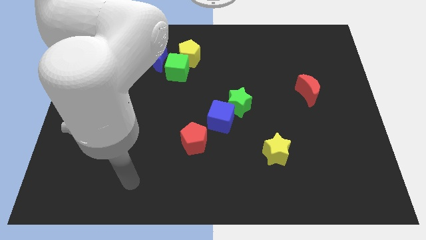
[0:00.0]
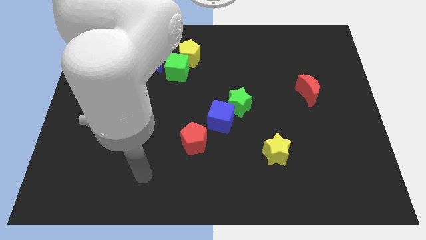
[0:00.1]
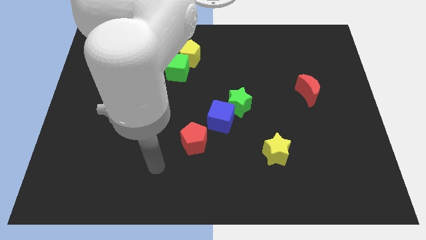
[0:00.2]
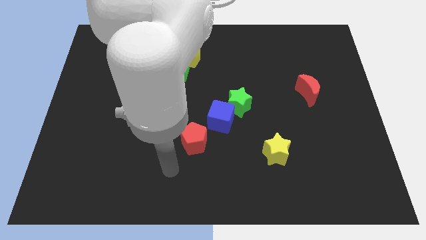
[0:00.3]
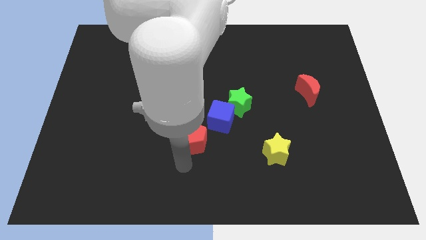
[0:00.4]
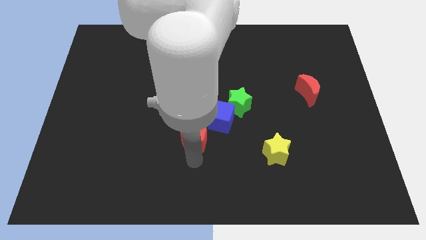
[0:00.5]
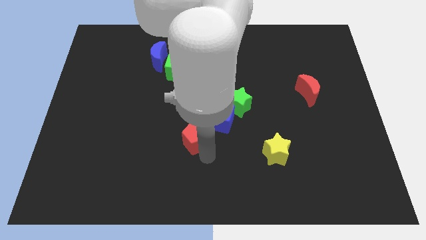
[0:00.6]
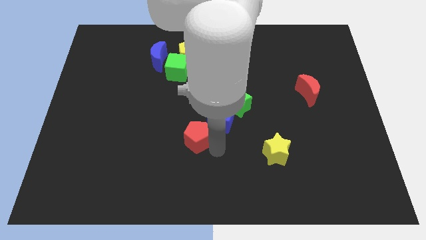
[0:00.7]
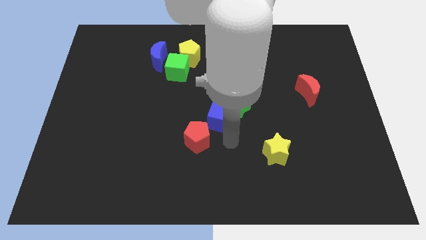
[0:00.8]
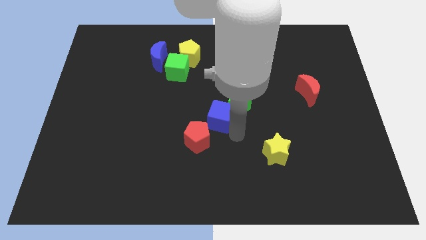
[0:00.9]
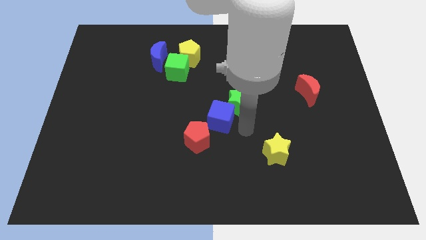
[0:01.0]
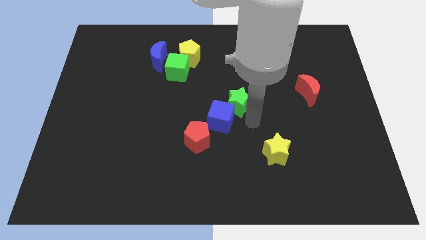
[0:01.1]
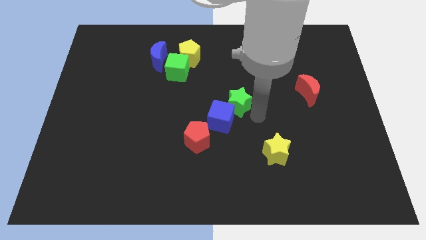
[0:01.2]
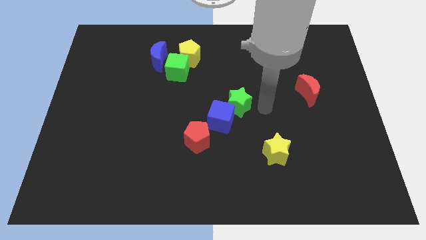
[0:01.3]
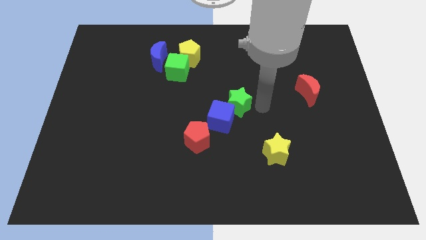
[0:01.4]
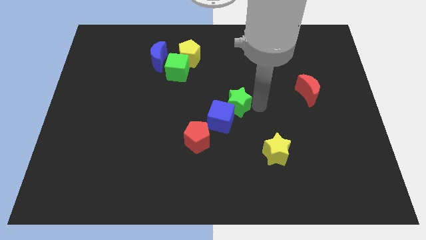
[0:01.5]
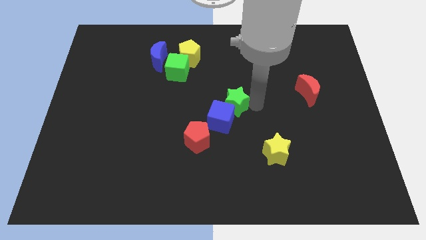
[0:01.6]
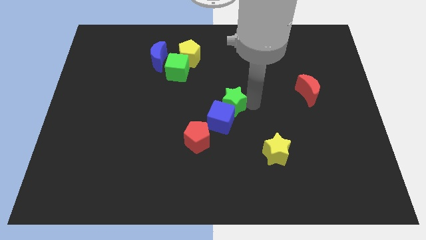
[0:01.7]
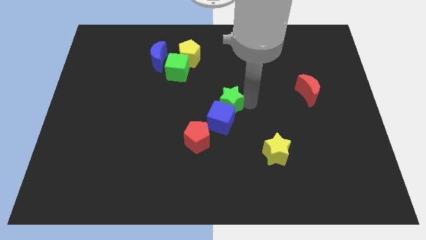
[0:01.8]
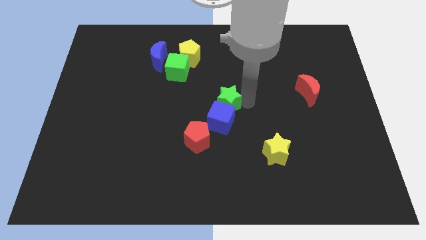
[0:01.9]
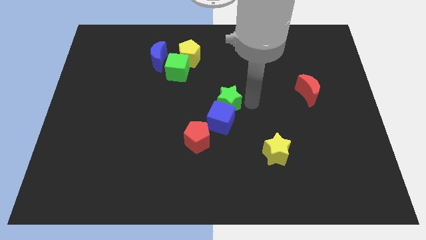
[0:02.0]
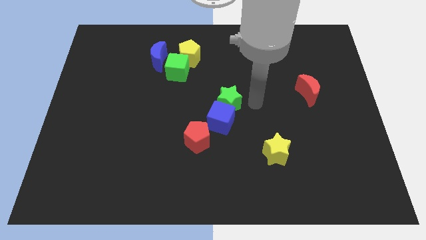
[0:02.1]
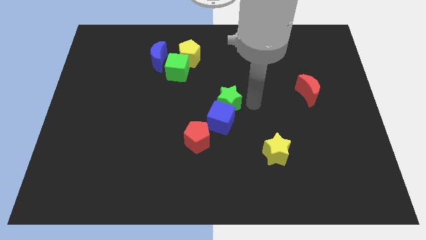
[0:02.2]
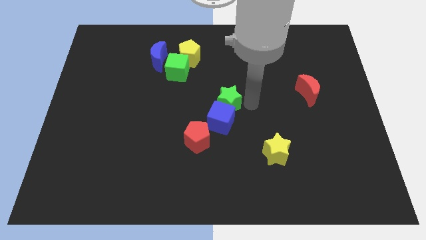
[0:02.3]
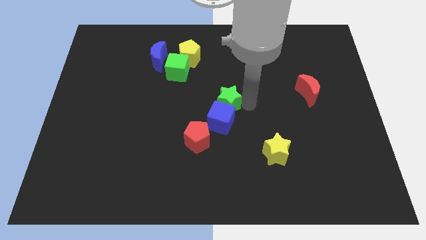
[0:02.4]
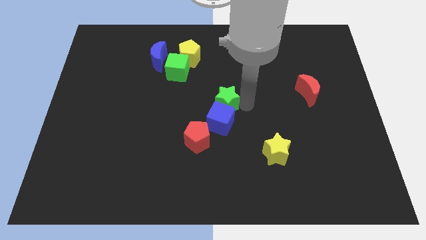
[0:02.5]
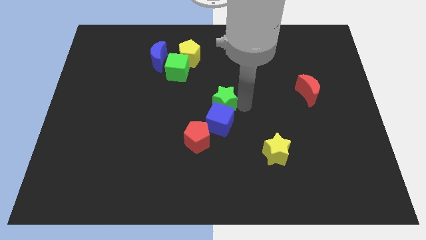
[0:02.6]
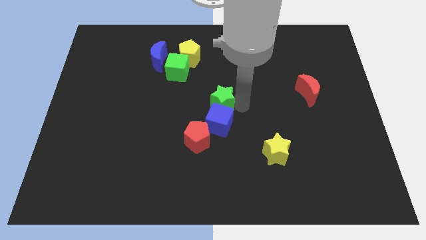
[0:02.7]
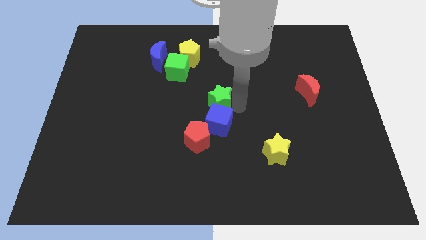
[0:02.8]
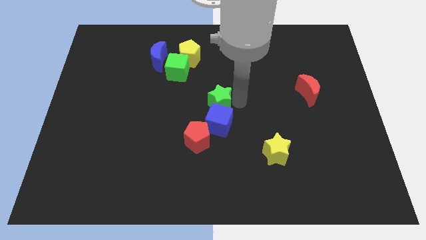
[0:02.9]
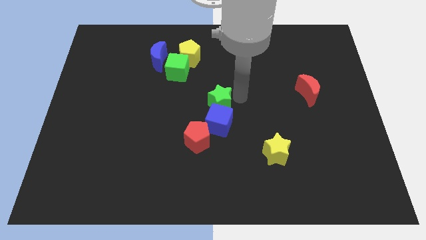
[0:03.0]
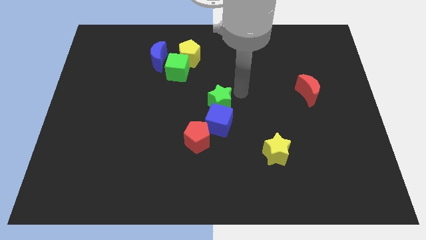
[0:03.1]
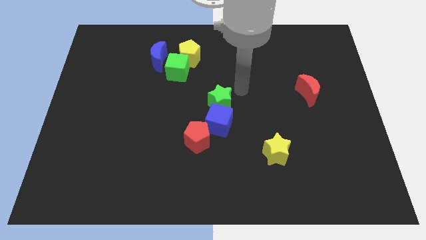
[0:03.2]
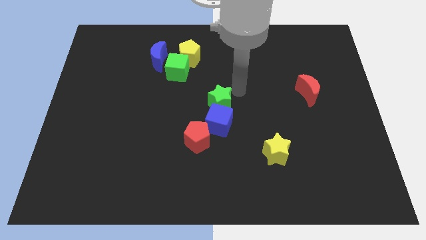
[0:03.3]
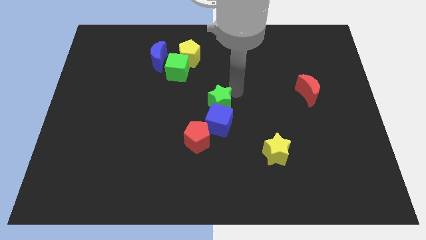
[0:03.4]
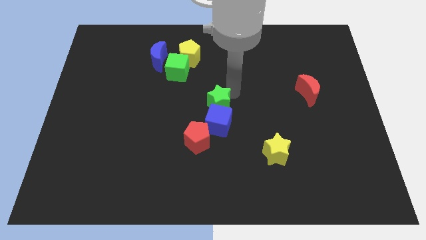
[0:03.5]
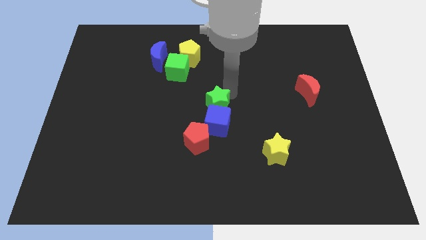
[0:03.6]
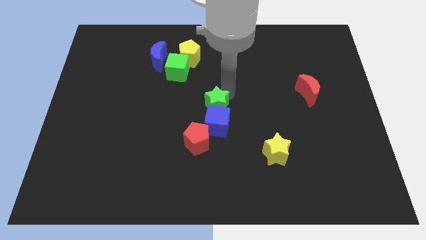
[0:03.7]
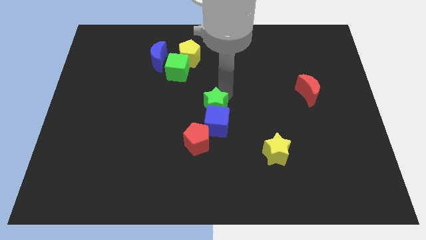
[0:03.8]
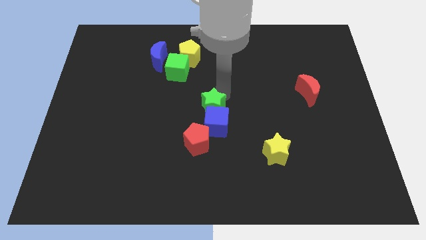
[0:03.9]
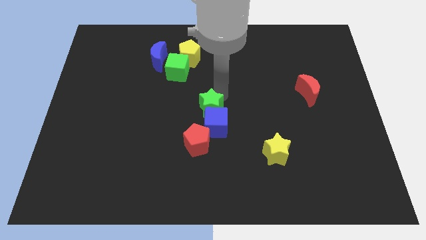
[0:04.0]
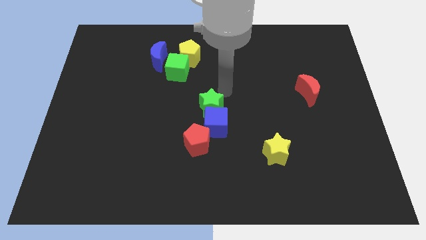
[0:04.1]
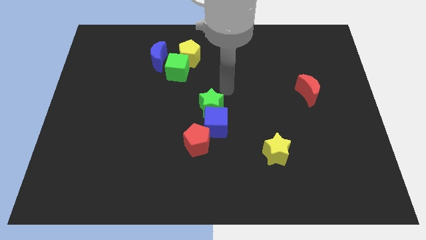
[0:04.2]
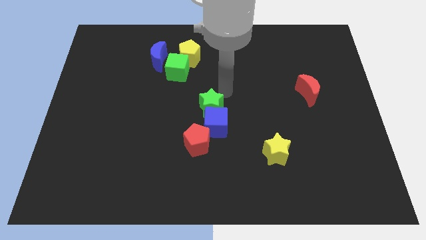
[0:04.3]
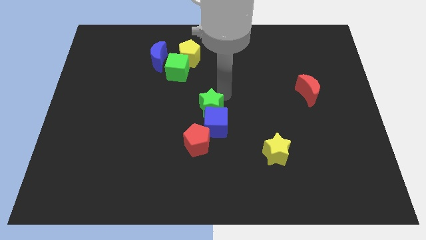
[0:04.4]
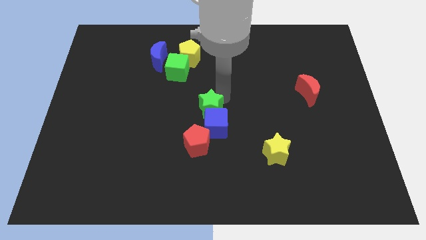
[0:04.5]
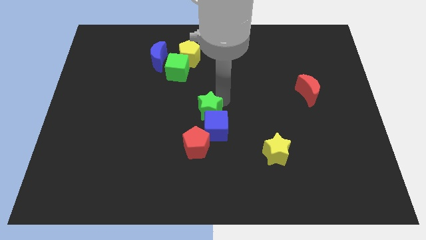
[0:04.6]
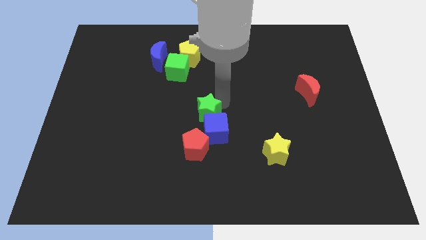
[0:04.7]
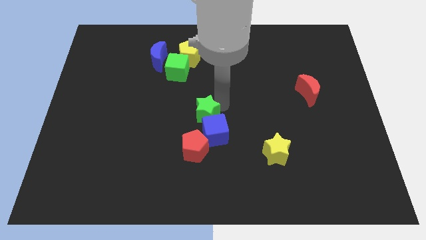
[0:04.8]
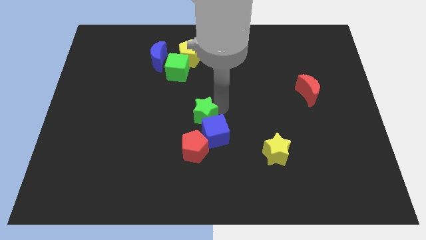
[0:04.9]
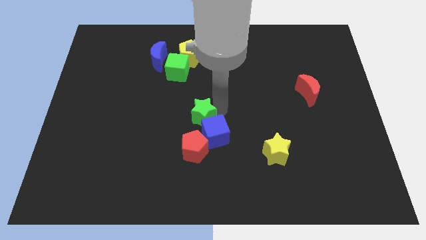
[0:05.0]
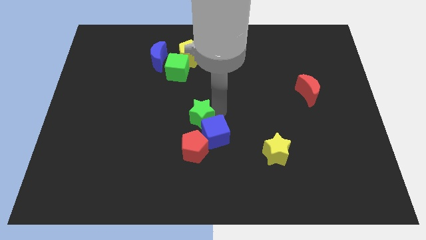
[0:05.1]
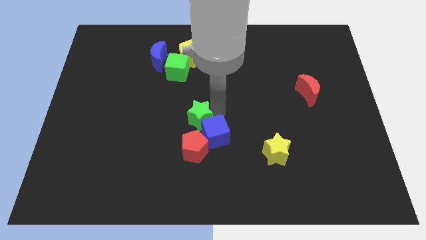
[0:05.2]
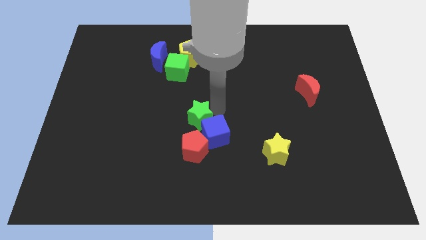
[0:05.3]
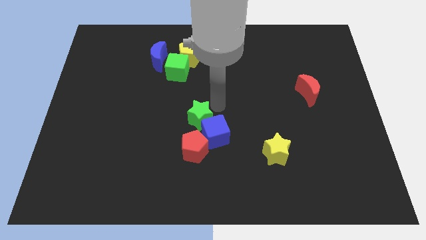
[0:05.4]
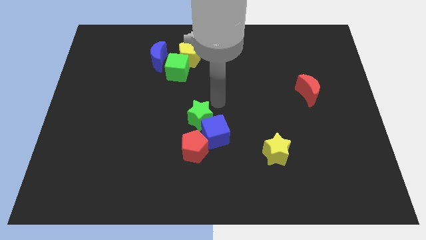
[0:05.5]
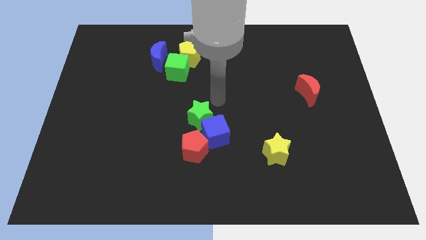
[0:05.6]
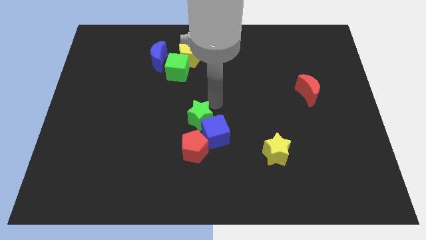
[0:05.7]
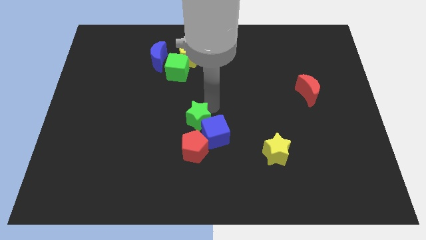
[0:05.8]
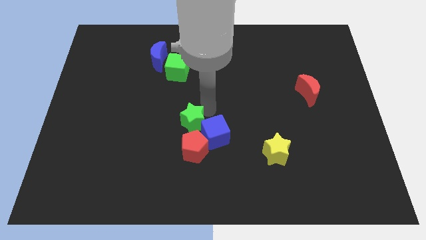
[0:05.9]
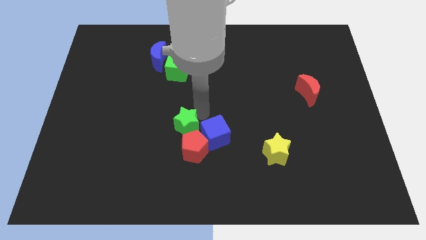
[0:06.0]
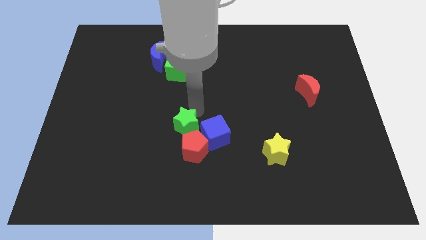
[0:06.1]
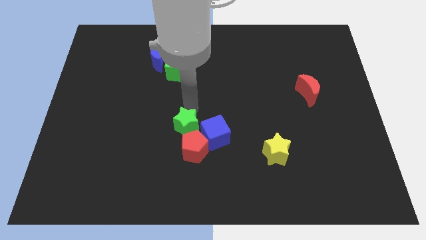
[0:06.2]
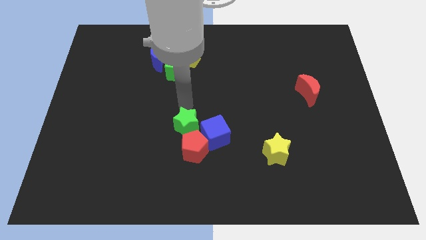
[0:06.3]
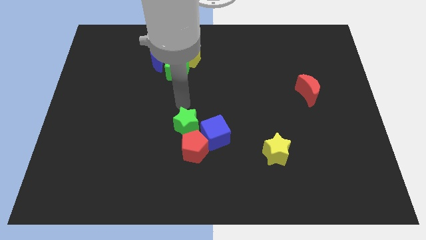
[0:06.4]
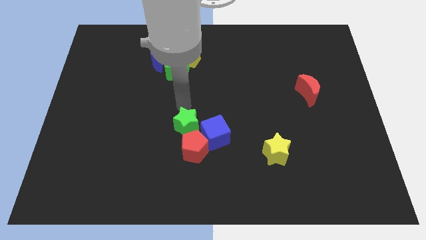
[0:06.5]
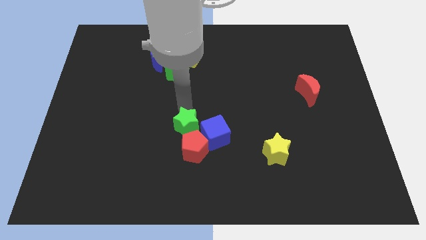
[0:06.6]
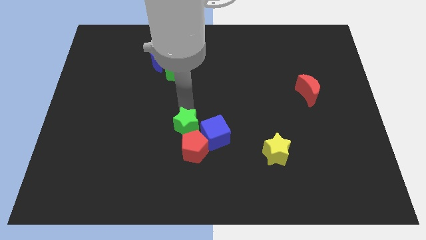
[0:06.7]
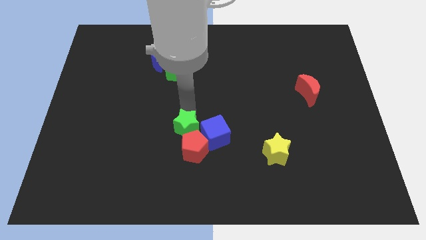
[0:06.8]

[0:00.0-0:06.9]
move the green star to the red pentagon

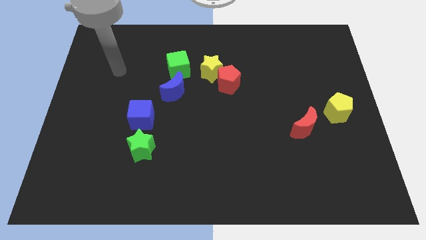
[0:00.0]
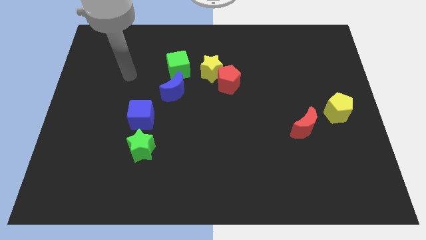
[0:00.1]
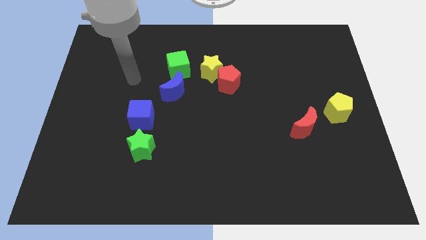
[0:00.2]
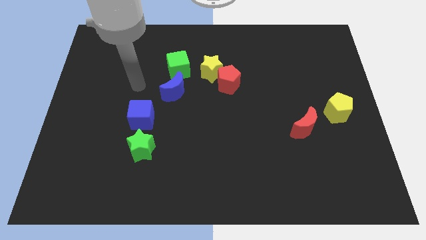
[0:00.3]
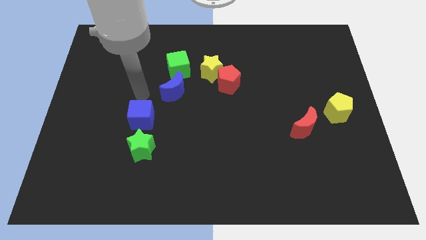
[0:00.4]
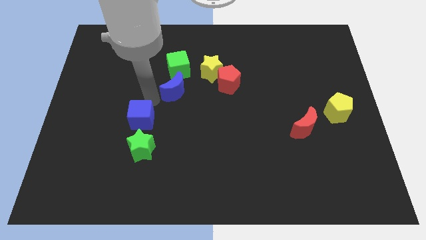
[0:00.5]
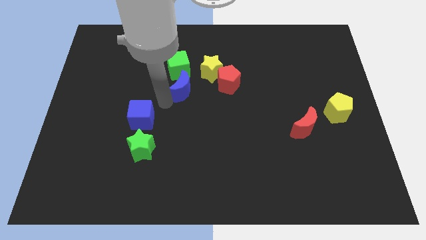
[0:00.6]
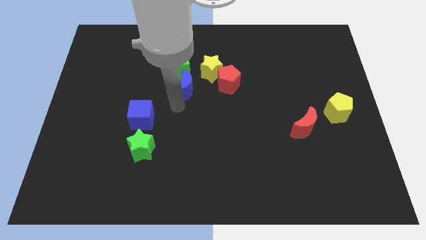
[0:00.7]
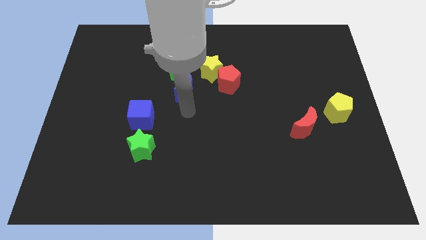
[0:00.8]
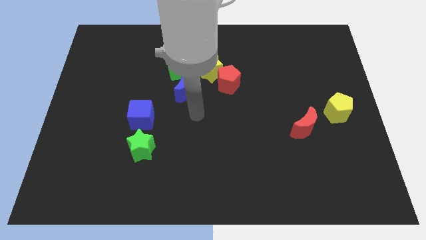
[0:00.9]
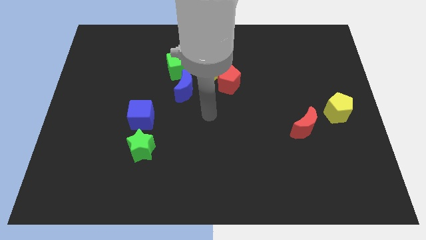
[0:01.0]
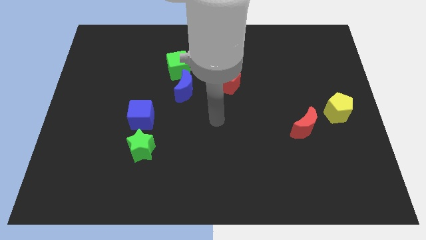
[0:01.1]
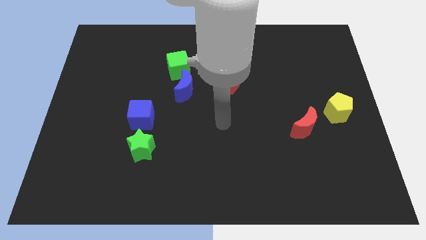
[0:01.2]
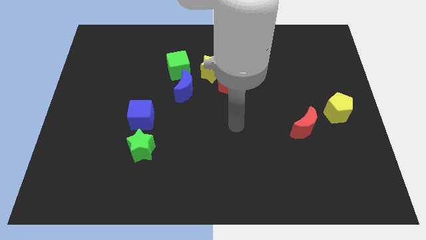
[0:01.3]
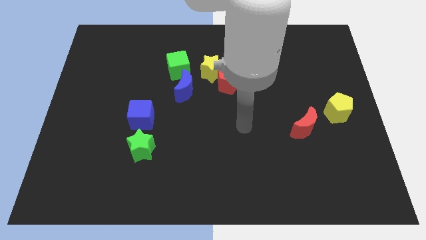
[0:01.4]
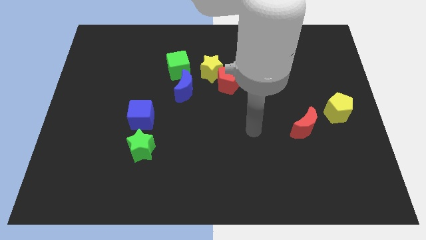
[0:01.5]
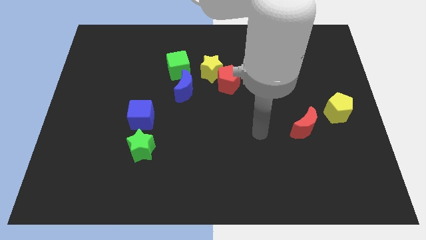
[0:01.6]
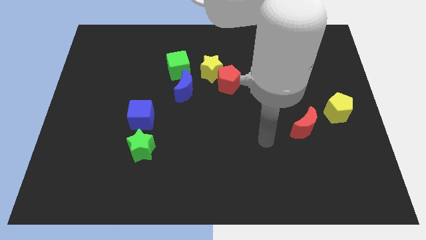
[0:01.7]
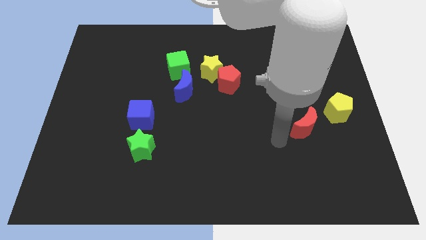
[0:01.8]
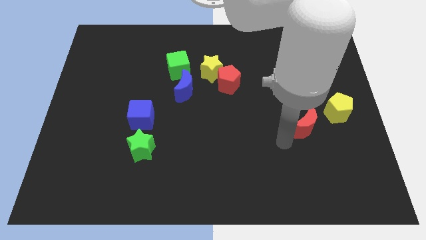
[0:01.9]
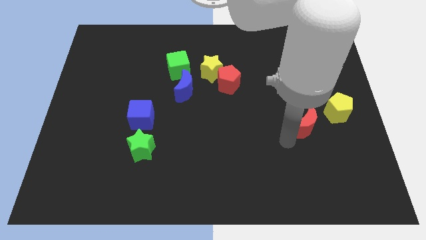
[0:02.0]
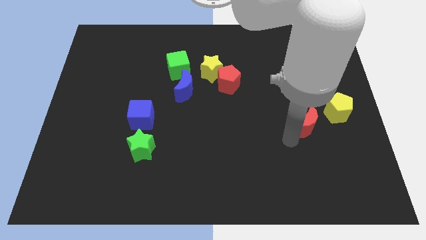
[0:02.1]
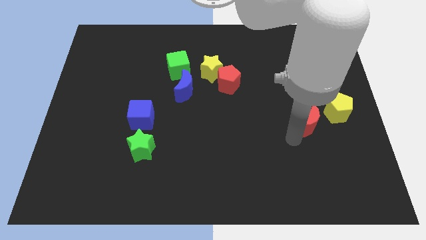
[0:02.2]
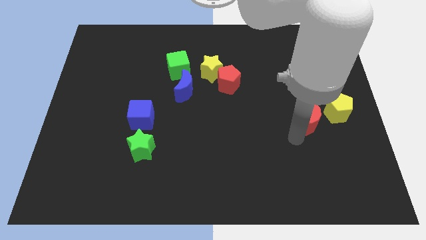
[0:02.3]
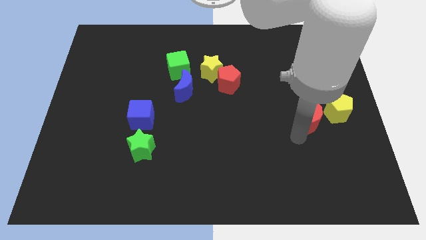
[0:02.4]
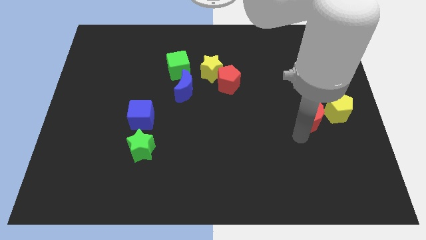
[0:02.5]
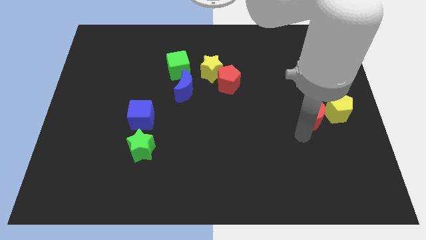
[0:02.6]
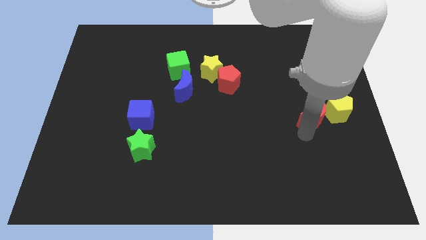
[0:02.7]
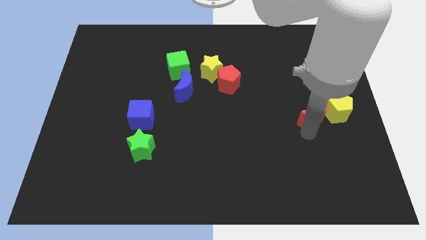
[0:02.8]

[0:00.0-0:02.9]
move the red moon towards the yellow pentagon
